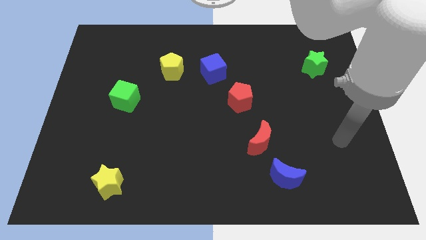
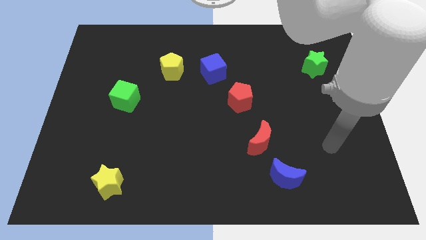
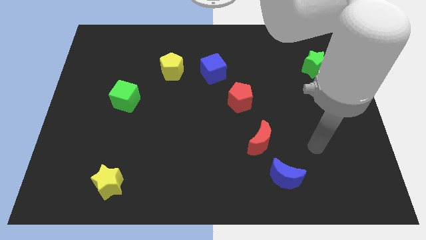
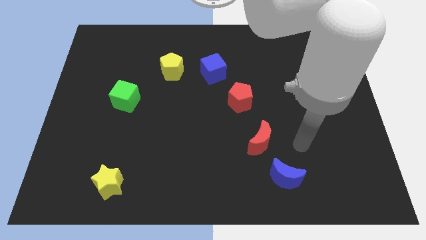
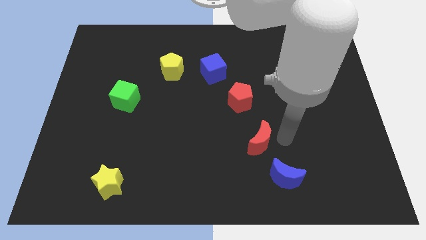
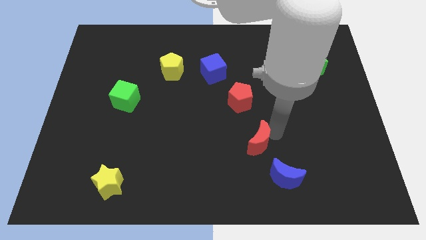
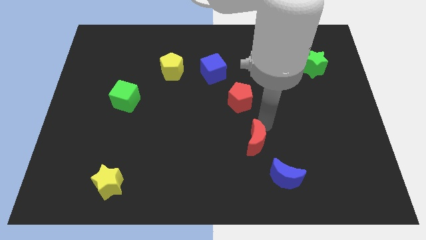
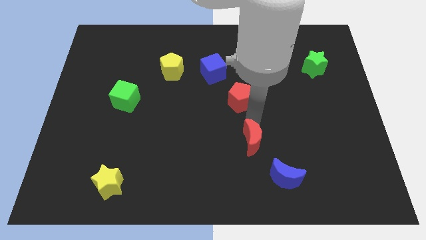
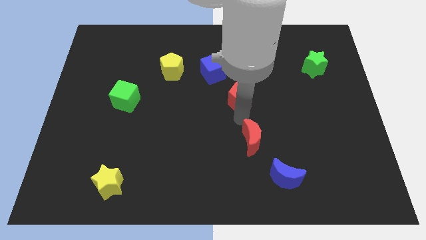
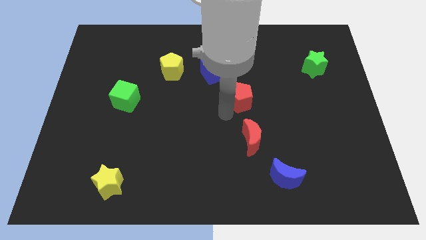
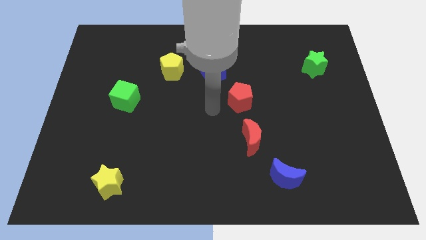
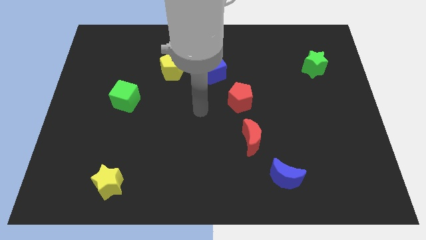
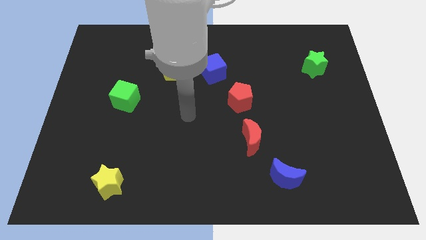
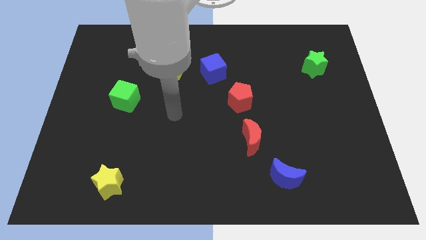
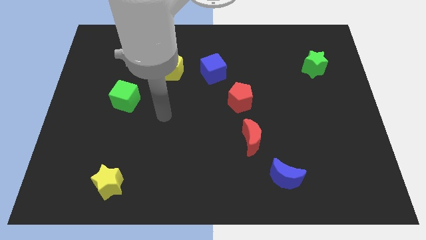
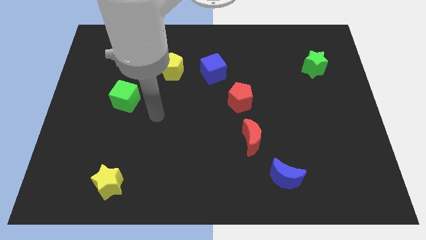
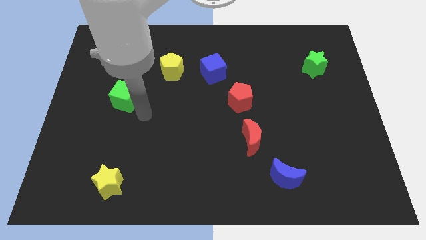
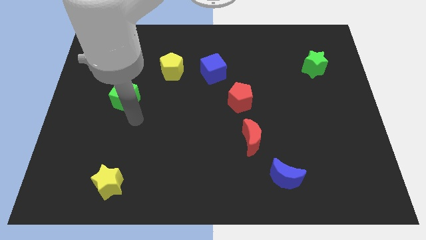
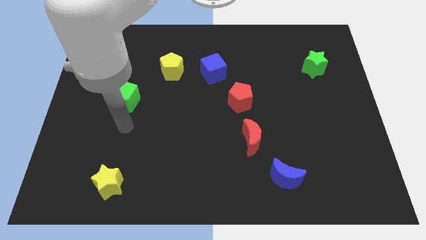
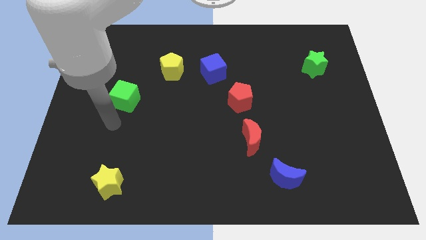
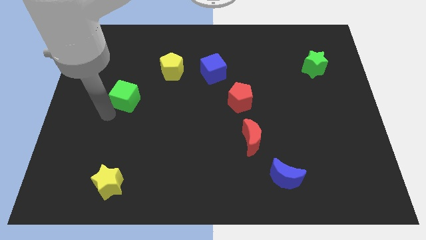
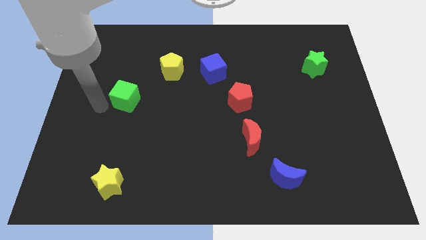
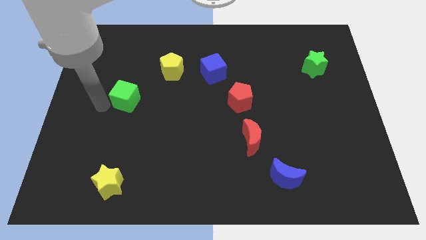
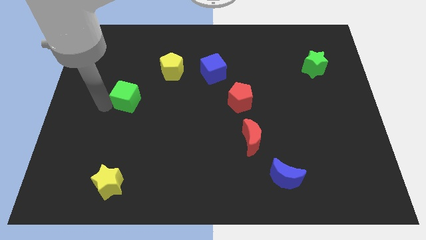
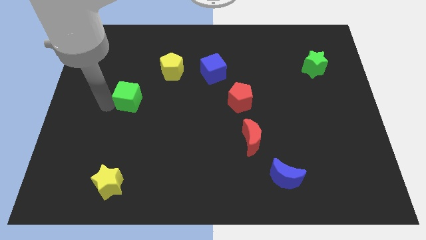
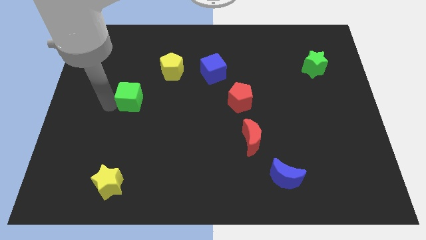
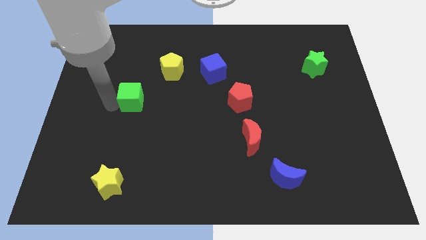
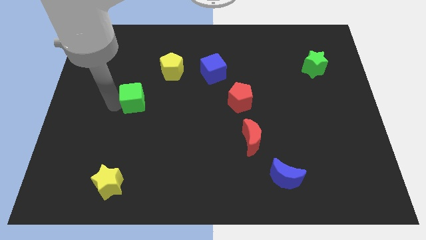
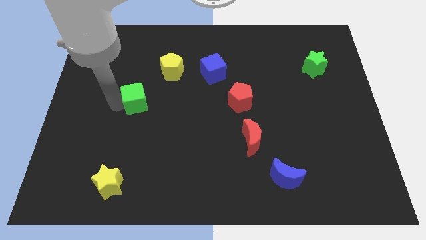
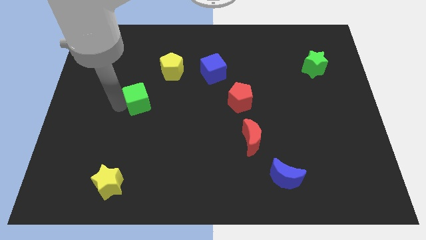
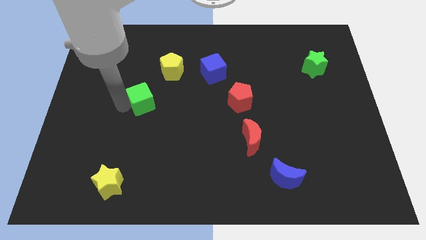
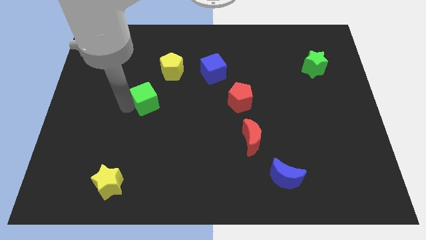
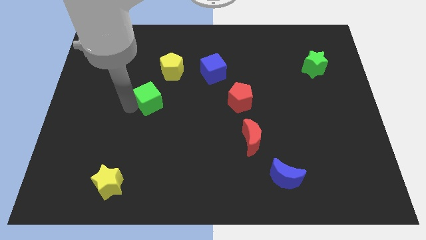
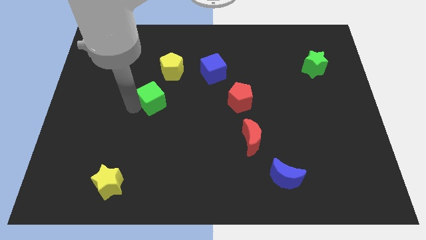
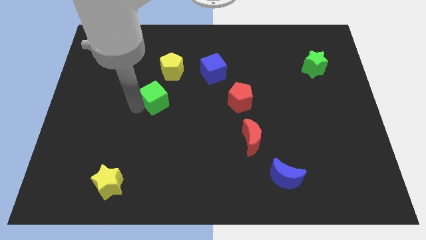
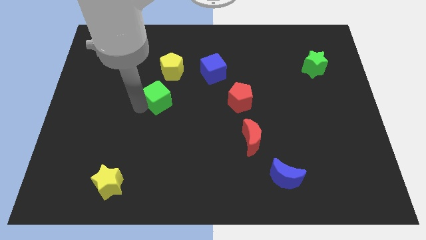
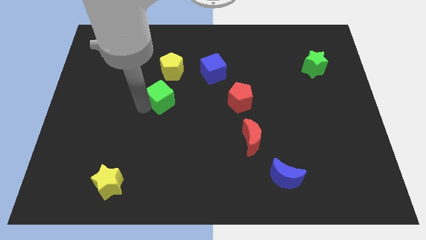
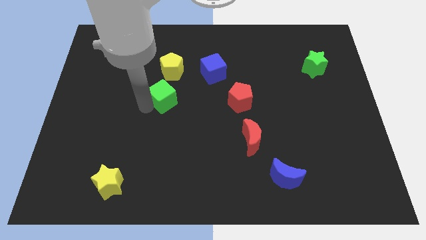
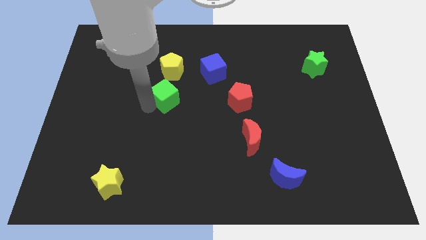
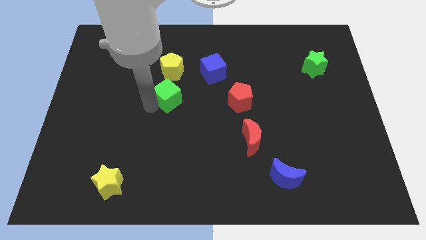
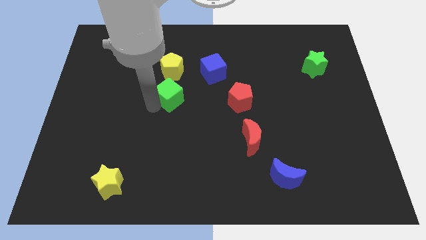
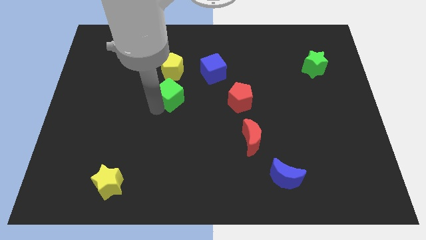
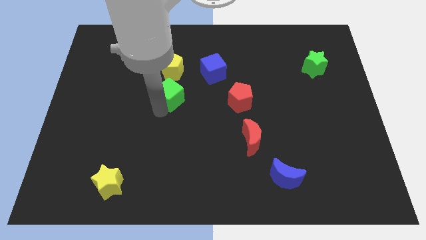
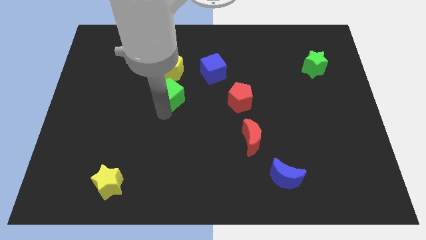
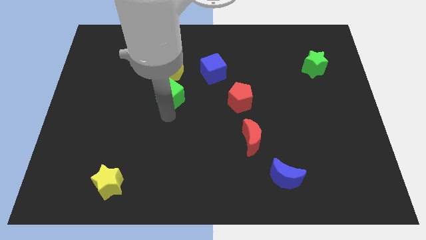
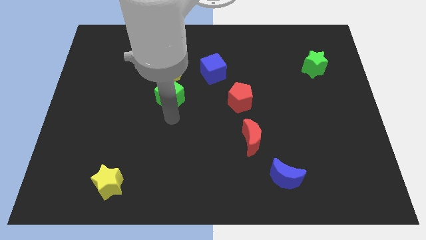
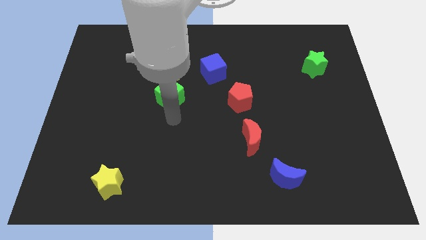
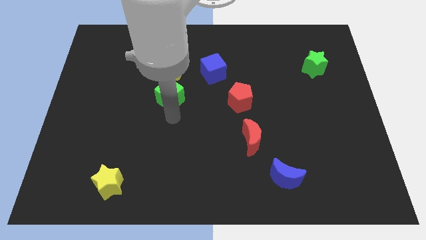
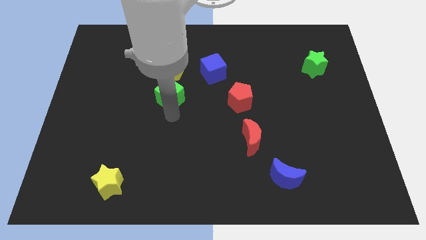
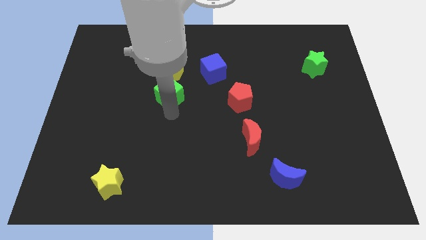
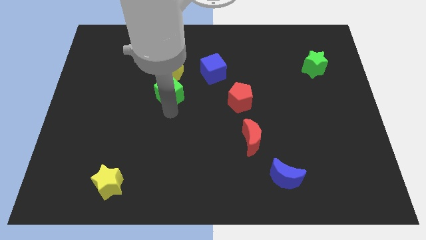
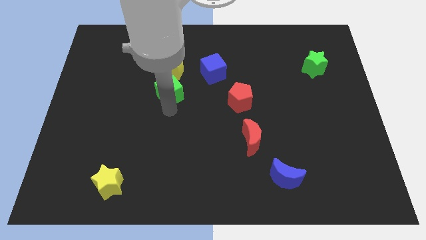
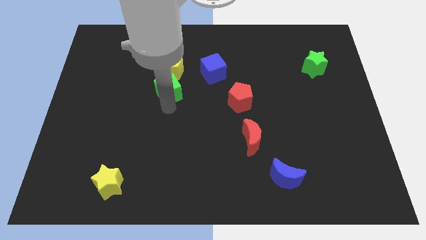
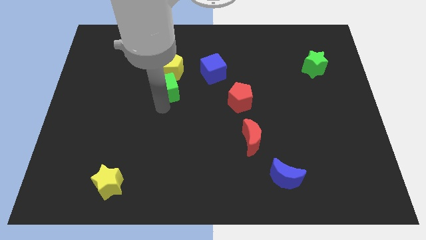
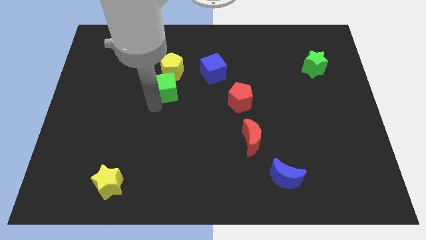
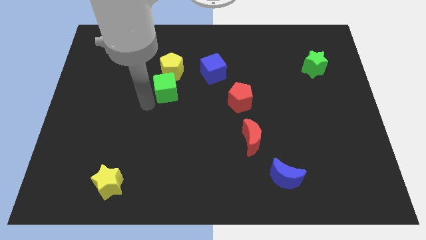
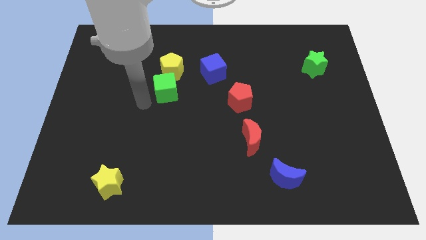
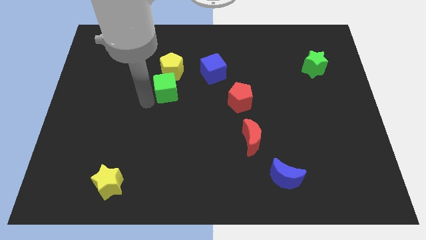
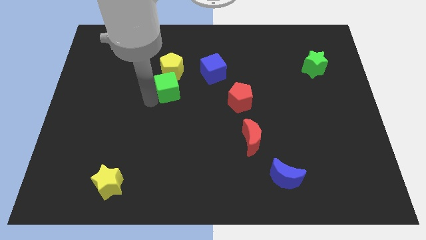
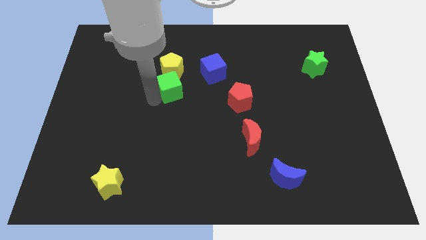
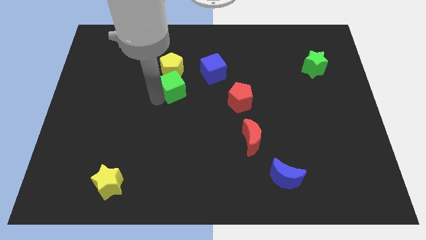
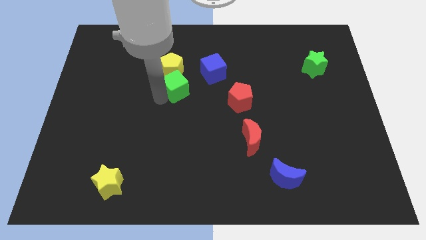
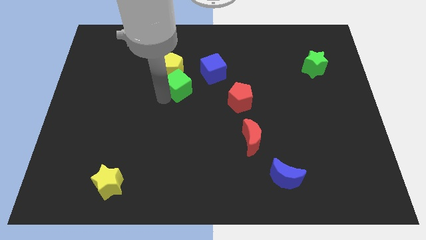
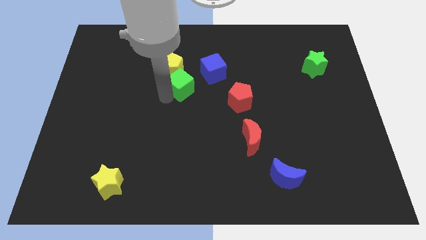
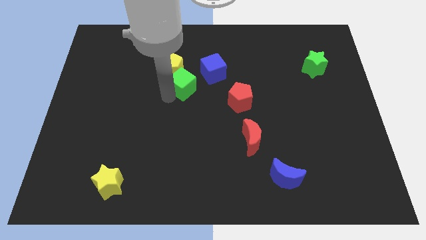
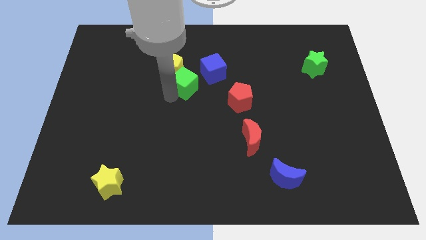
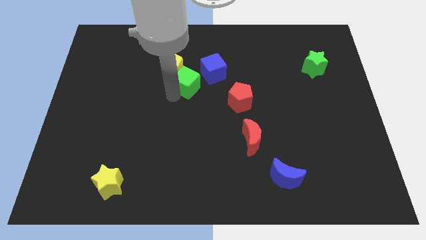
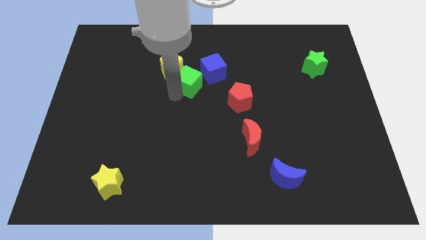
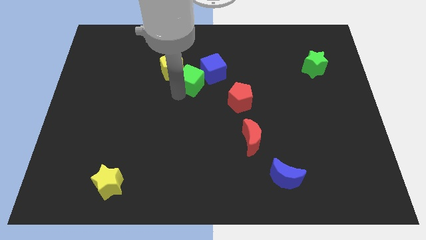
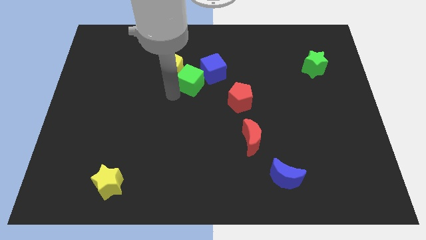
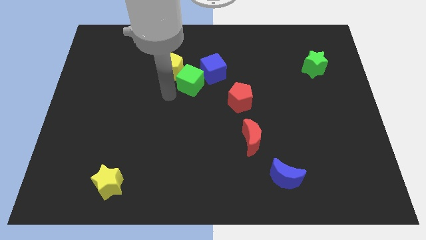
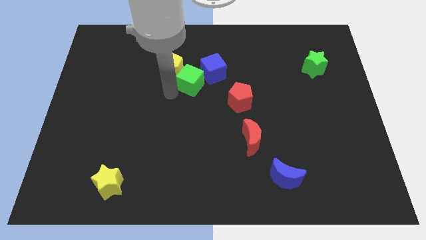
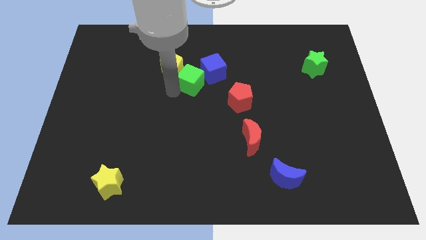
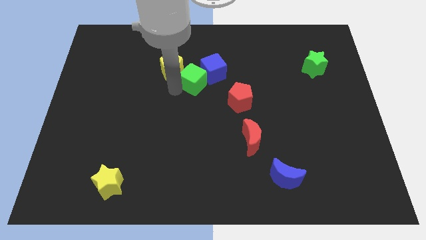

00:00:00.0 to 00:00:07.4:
move the green cube close to the blue cube
